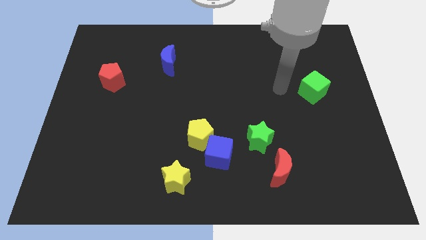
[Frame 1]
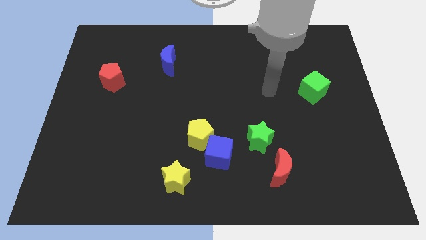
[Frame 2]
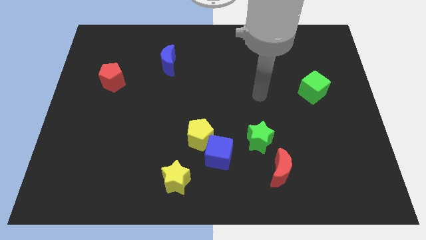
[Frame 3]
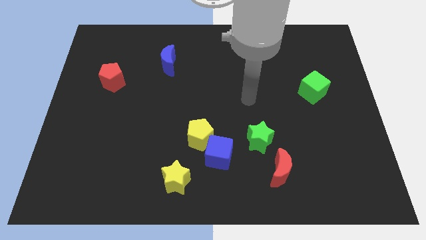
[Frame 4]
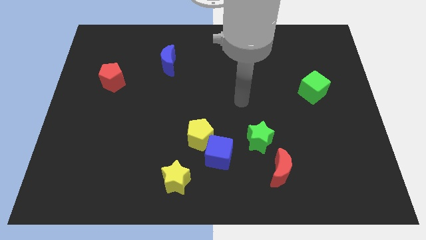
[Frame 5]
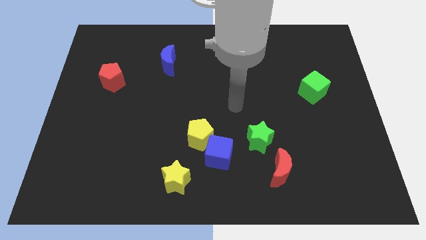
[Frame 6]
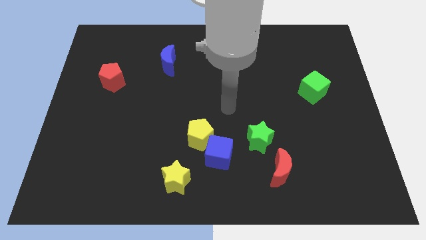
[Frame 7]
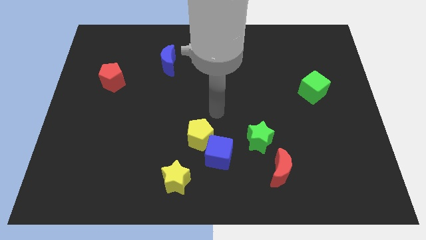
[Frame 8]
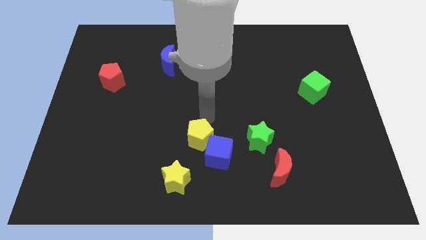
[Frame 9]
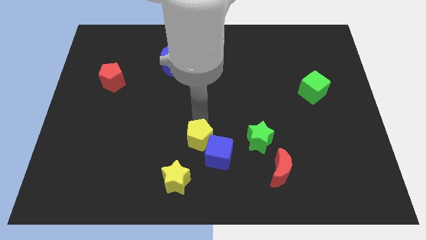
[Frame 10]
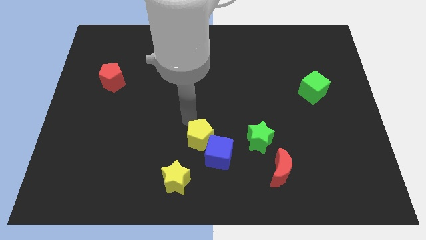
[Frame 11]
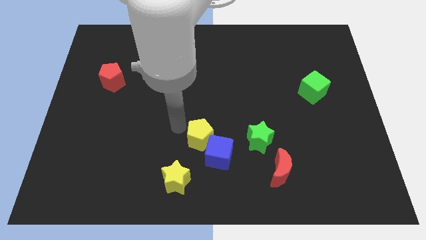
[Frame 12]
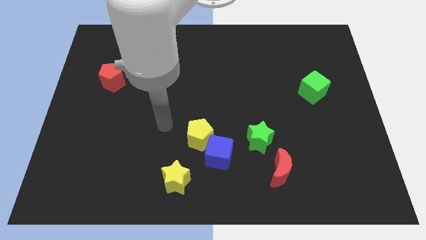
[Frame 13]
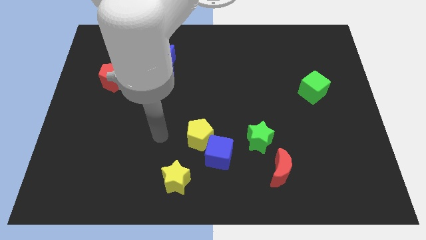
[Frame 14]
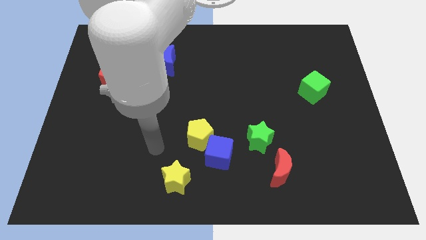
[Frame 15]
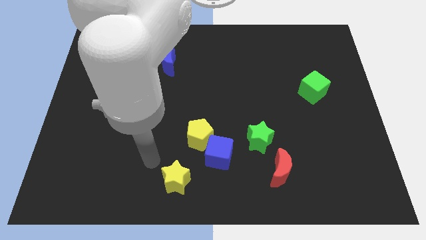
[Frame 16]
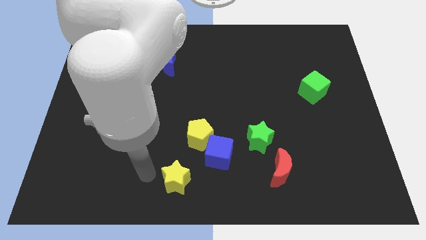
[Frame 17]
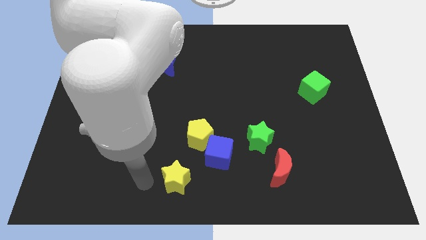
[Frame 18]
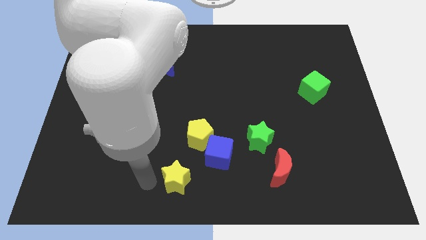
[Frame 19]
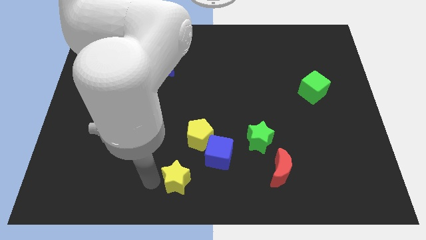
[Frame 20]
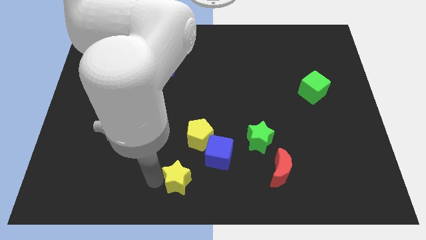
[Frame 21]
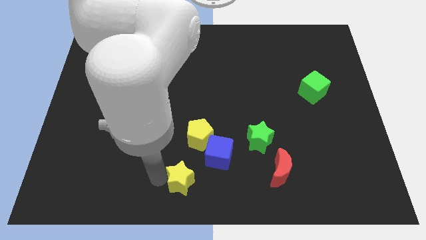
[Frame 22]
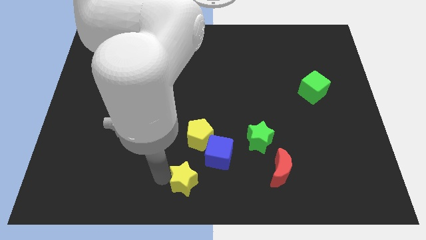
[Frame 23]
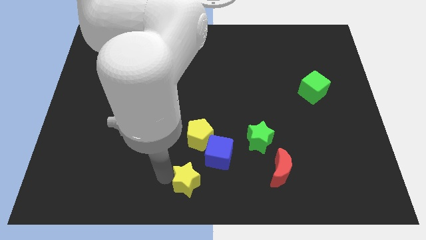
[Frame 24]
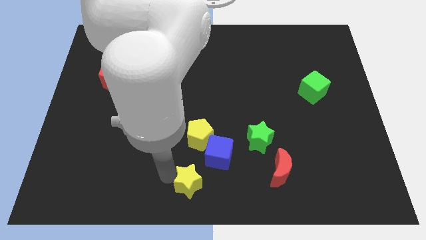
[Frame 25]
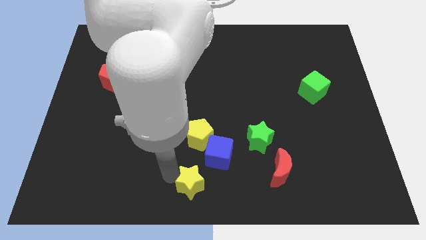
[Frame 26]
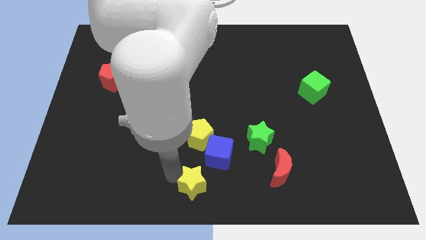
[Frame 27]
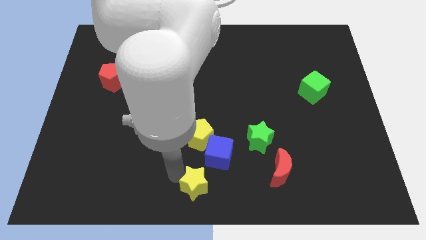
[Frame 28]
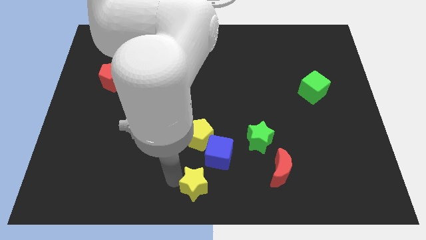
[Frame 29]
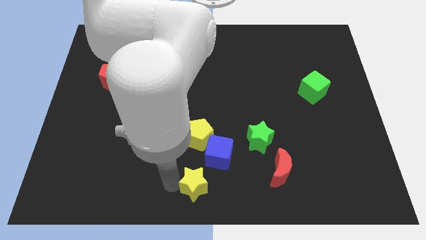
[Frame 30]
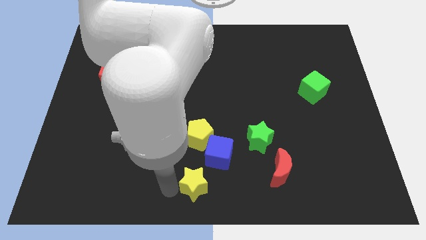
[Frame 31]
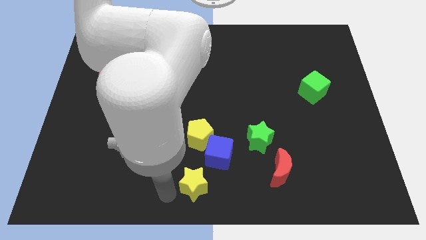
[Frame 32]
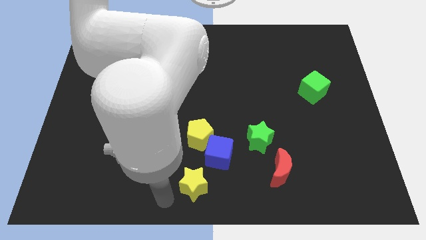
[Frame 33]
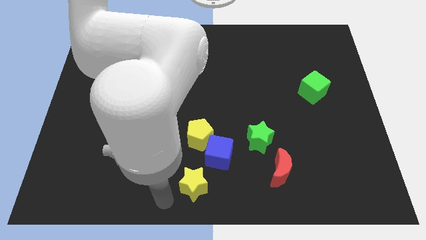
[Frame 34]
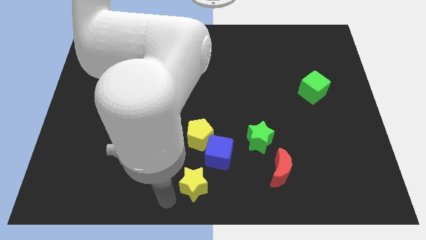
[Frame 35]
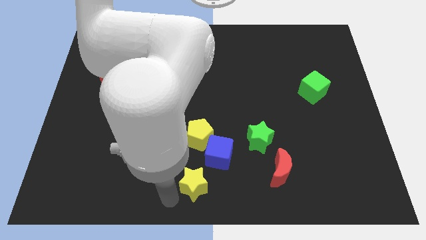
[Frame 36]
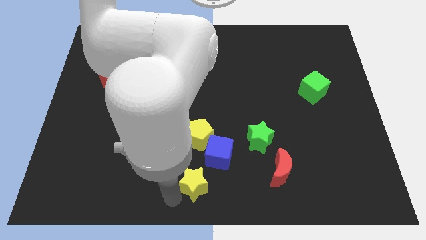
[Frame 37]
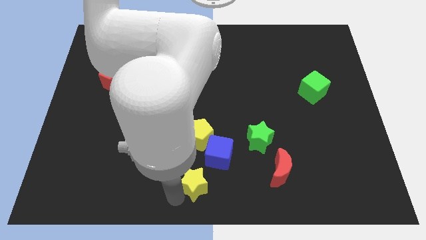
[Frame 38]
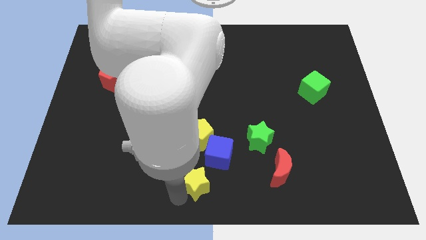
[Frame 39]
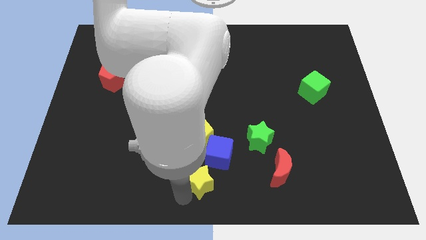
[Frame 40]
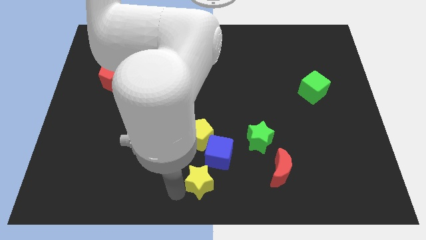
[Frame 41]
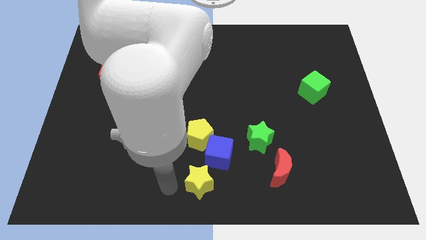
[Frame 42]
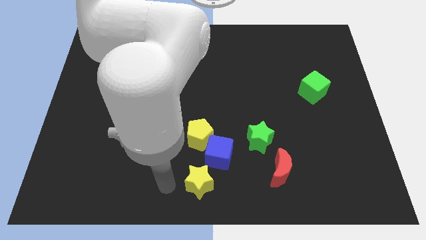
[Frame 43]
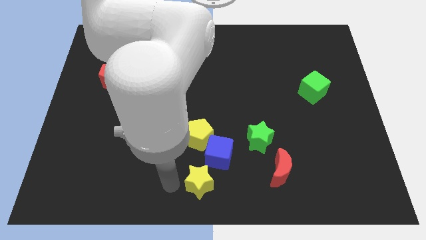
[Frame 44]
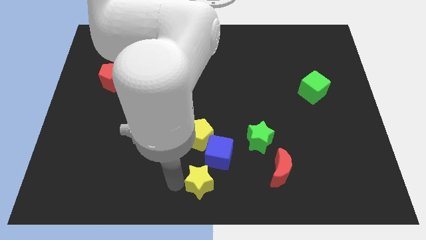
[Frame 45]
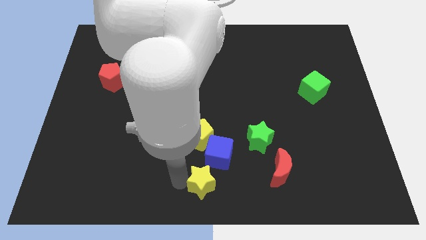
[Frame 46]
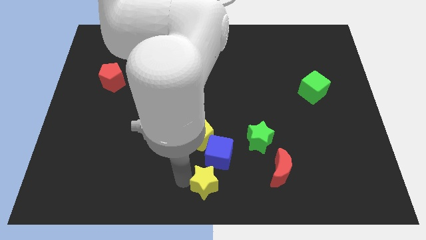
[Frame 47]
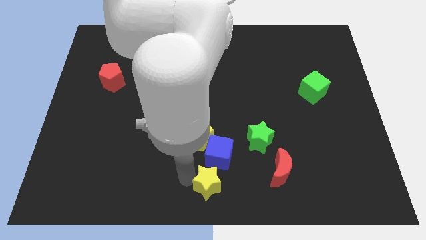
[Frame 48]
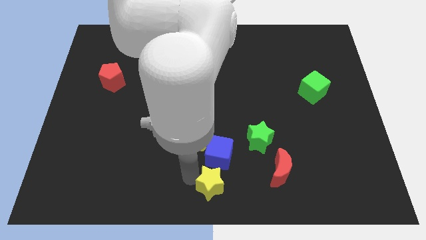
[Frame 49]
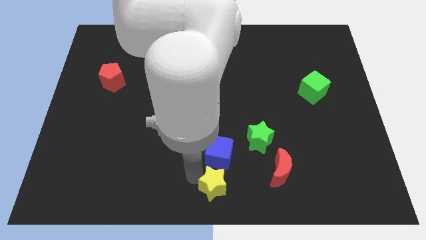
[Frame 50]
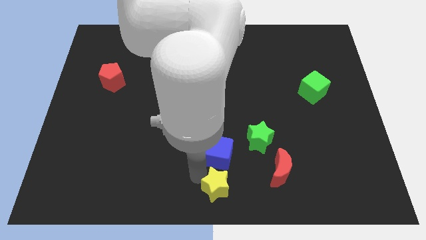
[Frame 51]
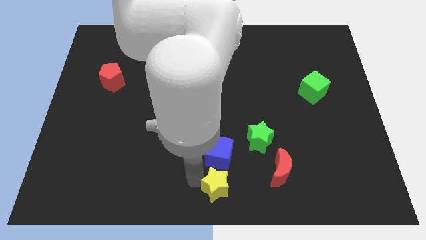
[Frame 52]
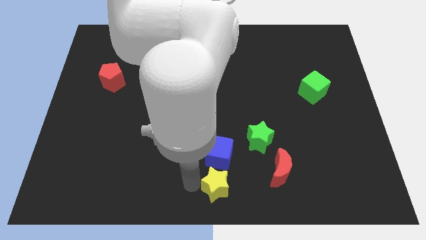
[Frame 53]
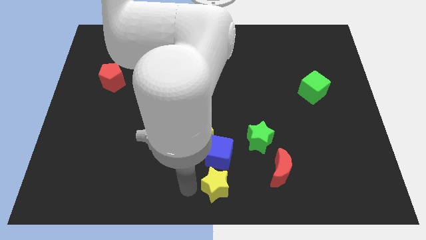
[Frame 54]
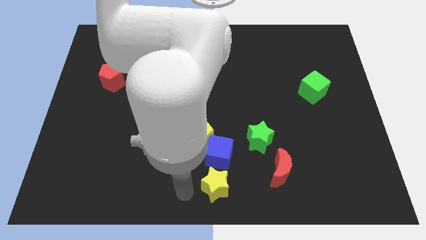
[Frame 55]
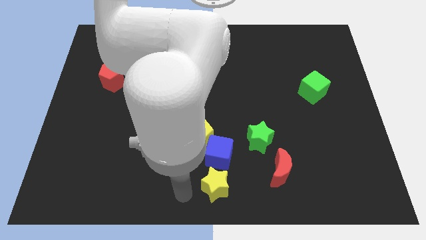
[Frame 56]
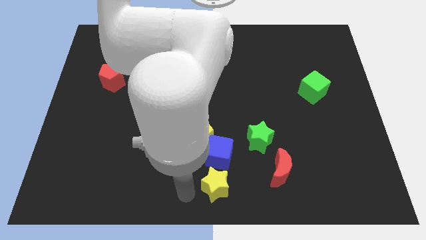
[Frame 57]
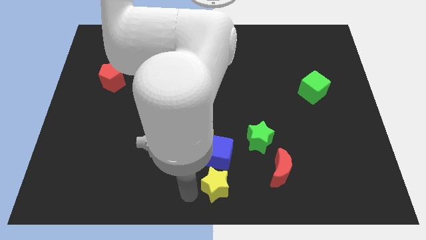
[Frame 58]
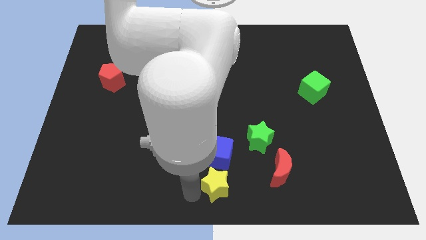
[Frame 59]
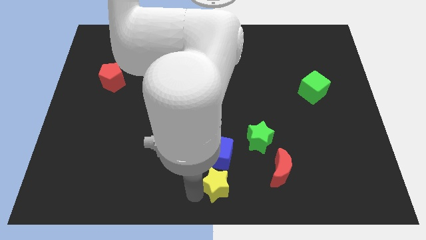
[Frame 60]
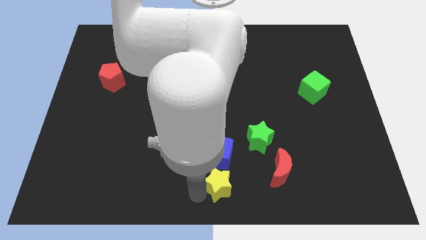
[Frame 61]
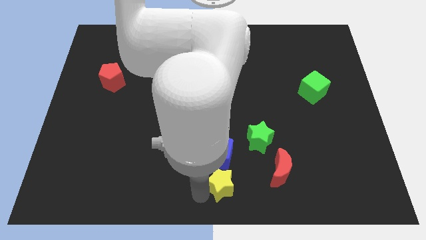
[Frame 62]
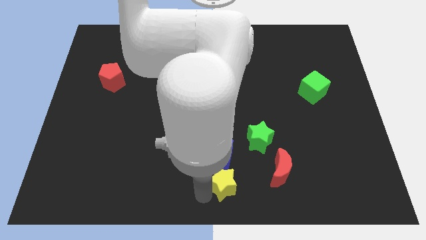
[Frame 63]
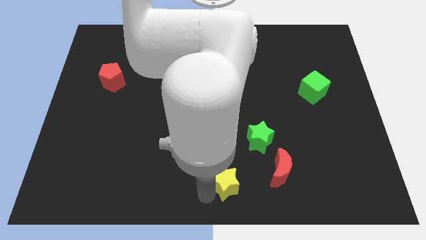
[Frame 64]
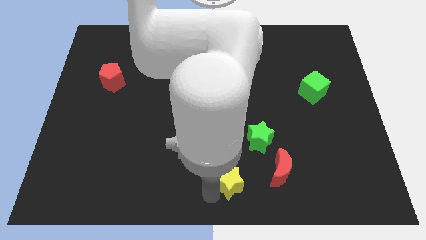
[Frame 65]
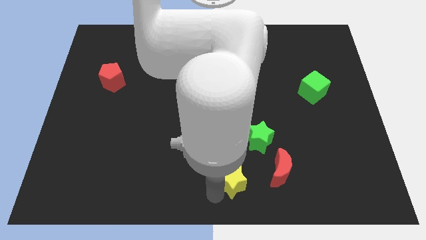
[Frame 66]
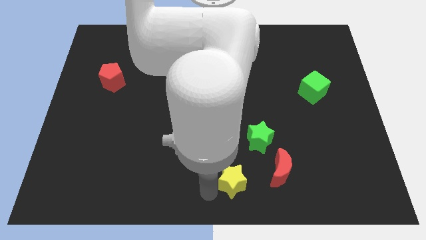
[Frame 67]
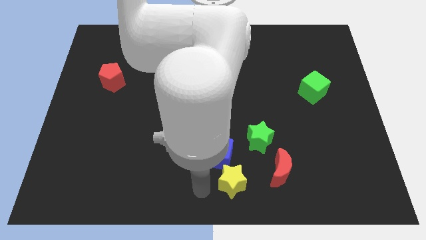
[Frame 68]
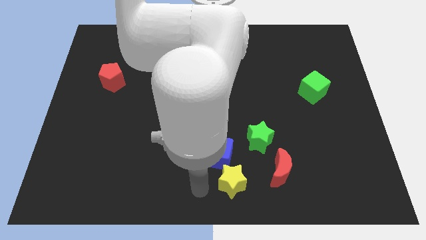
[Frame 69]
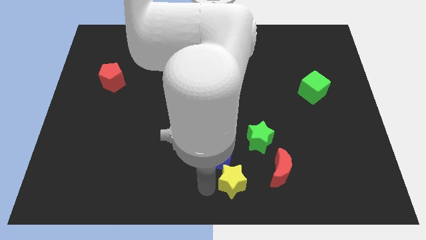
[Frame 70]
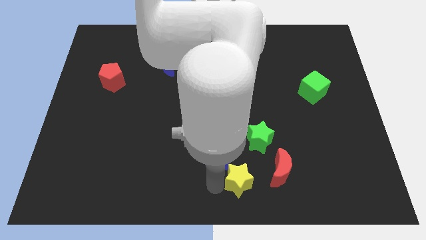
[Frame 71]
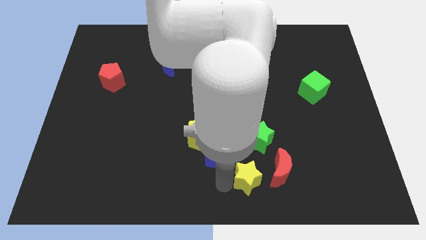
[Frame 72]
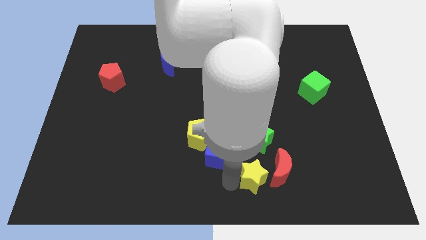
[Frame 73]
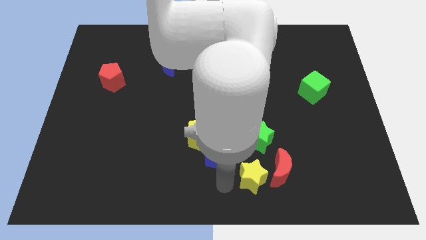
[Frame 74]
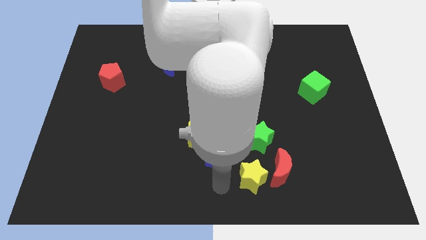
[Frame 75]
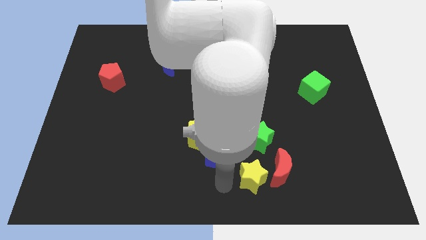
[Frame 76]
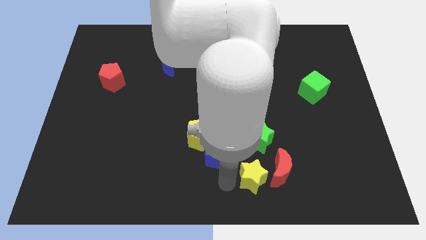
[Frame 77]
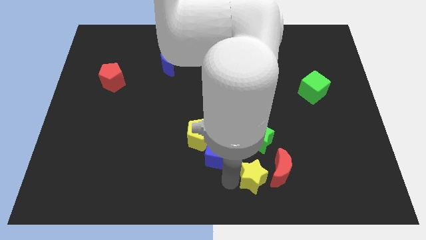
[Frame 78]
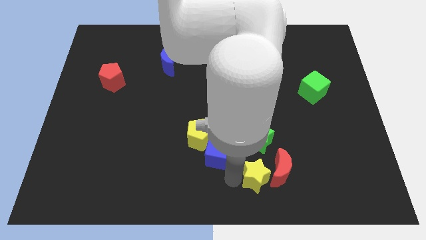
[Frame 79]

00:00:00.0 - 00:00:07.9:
push the yellow star to the red moon

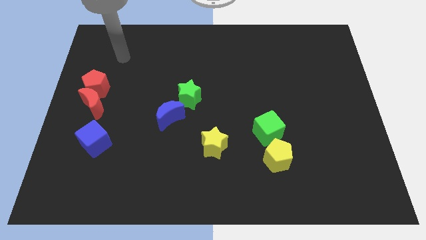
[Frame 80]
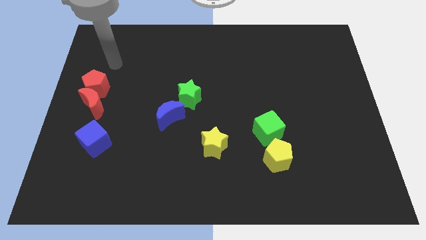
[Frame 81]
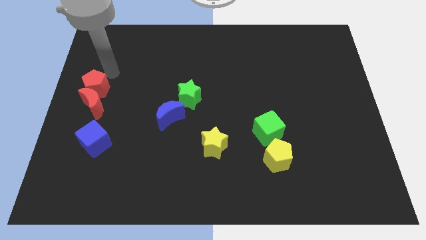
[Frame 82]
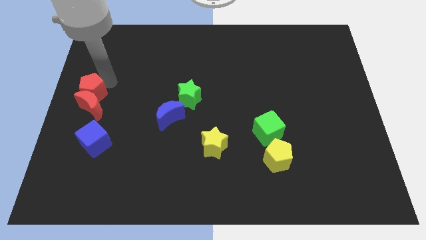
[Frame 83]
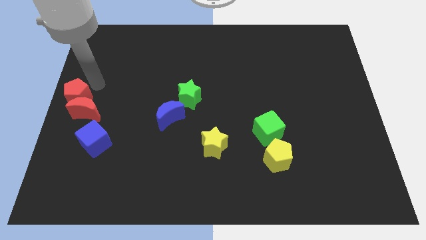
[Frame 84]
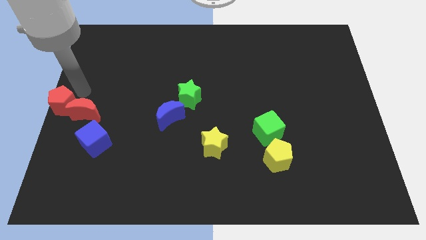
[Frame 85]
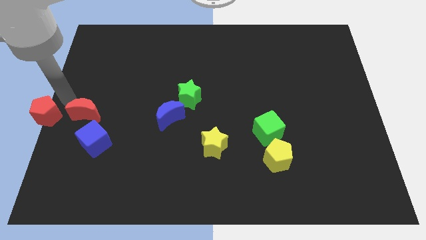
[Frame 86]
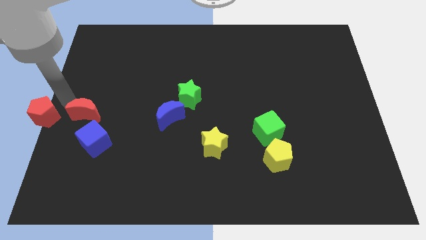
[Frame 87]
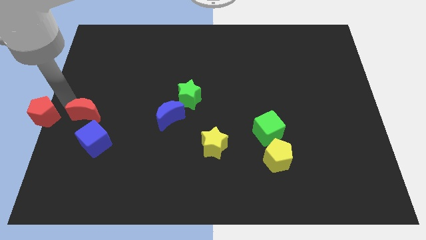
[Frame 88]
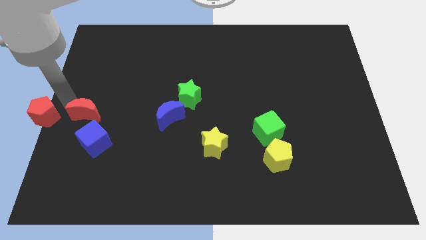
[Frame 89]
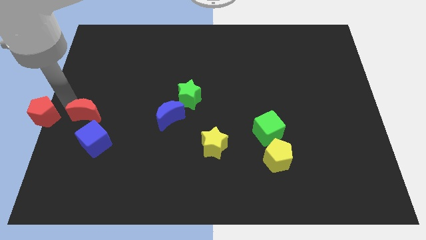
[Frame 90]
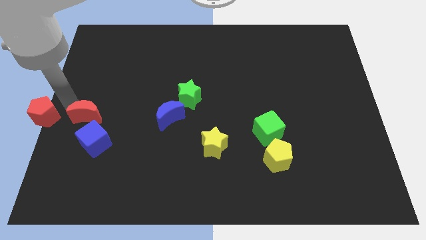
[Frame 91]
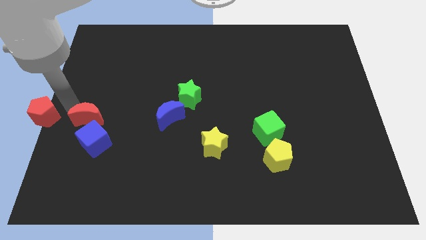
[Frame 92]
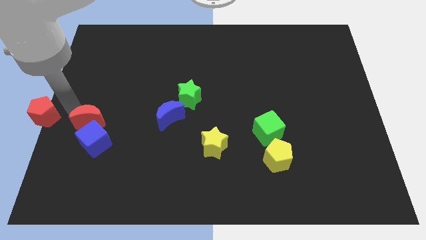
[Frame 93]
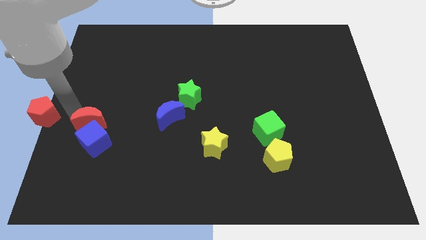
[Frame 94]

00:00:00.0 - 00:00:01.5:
put the red moon next to the blue cube
